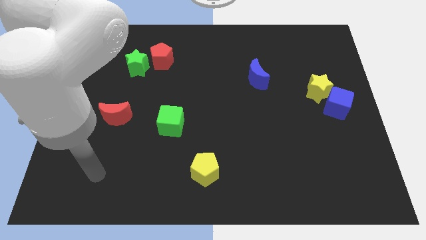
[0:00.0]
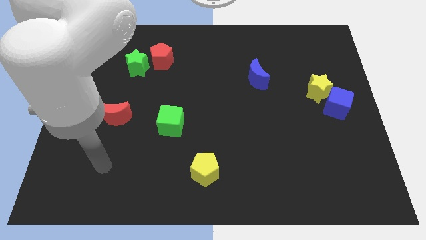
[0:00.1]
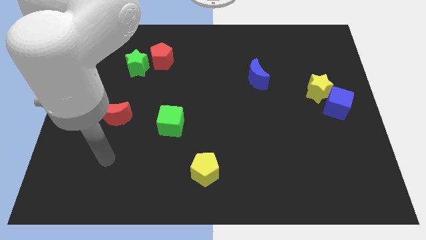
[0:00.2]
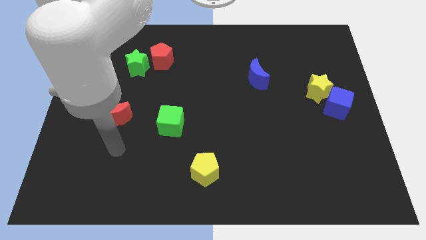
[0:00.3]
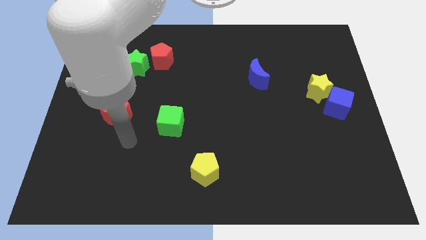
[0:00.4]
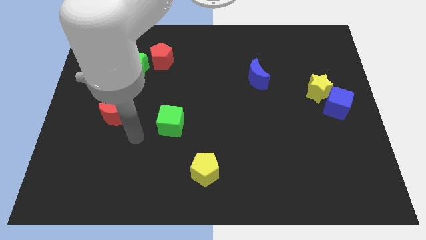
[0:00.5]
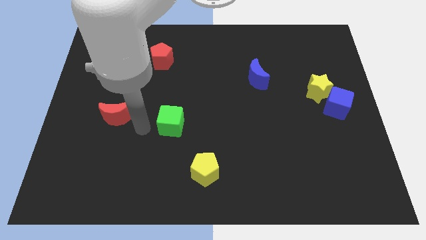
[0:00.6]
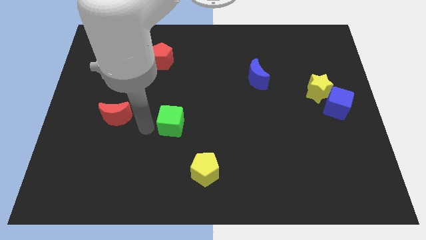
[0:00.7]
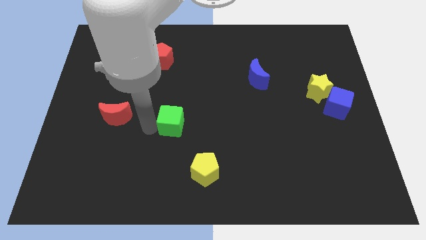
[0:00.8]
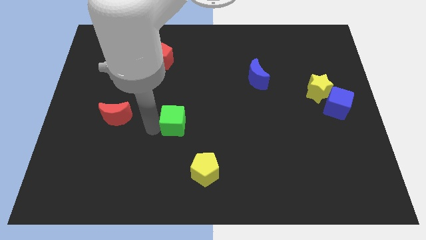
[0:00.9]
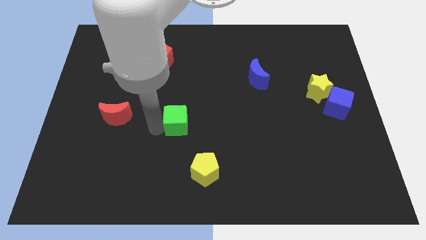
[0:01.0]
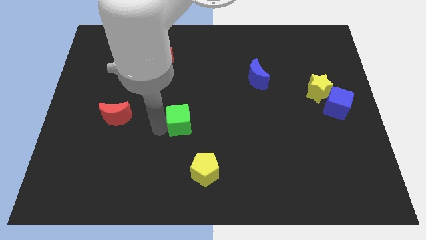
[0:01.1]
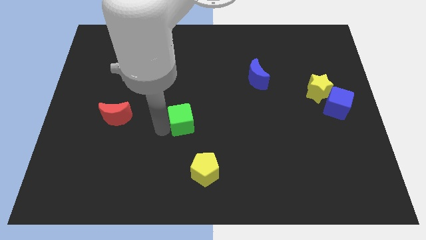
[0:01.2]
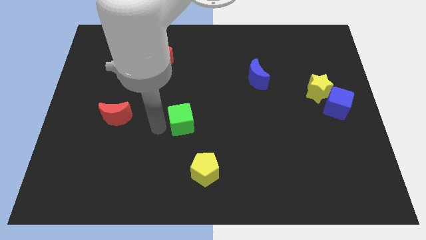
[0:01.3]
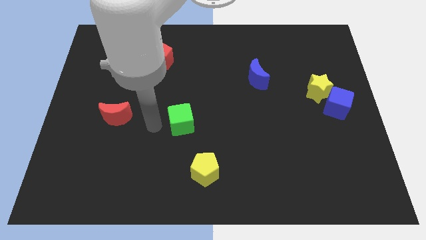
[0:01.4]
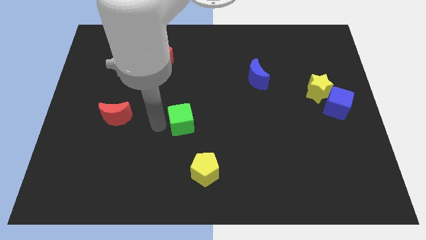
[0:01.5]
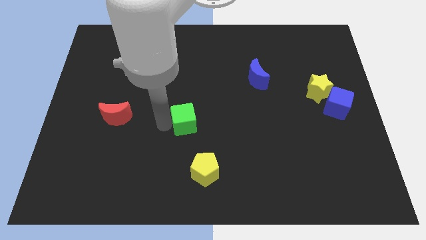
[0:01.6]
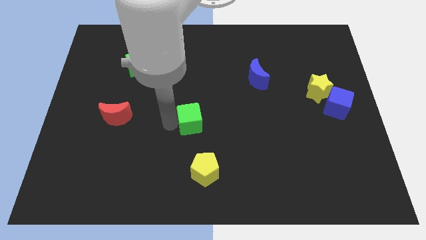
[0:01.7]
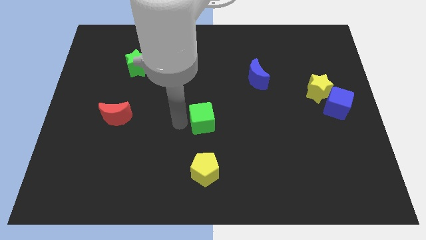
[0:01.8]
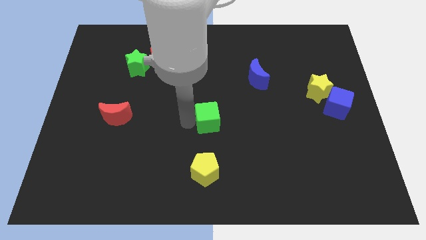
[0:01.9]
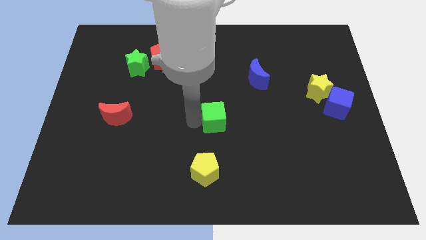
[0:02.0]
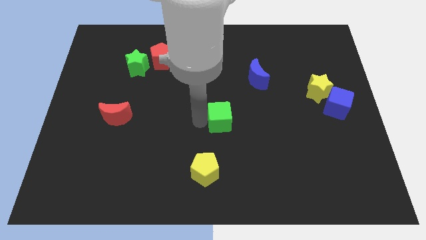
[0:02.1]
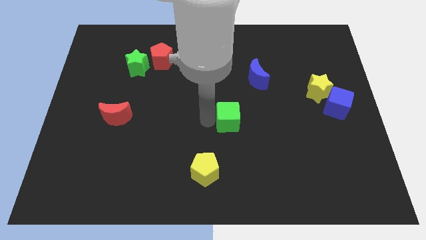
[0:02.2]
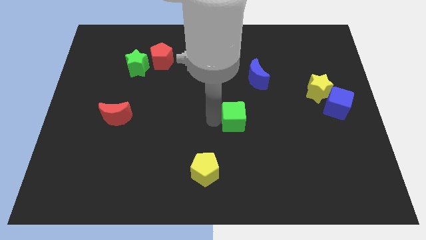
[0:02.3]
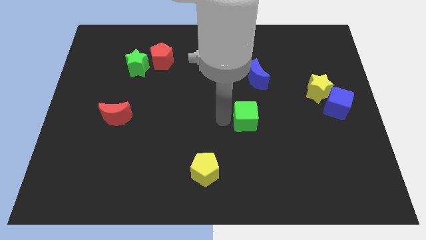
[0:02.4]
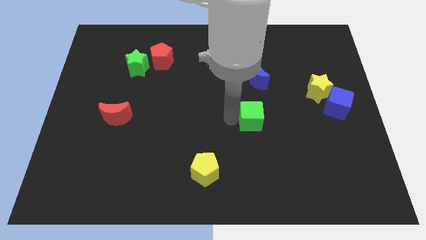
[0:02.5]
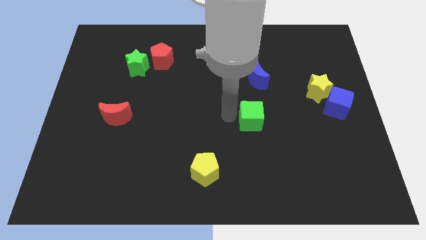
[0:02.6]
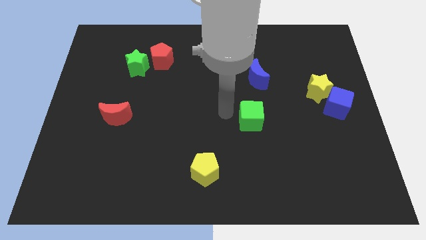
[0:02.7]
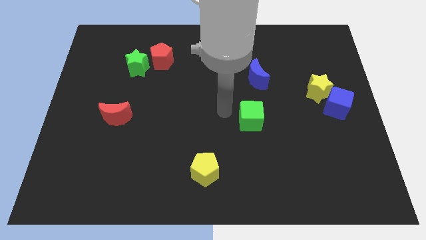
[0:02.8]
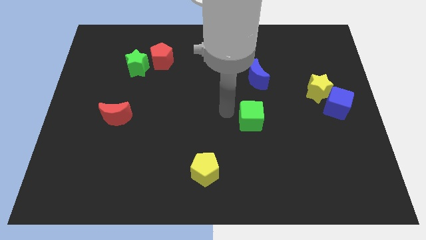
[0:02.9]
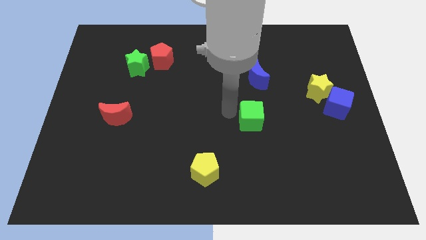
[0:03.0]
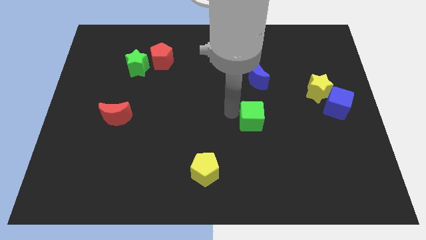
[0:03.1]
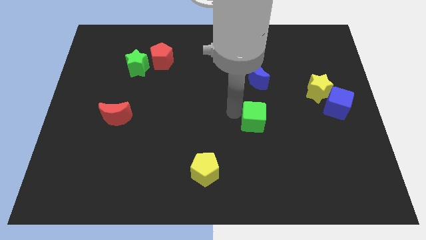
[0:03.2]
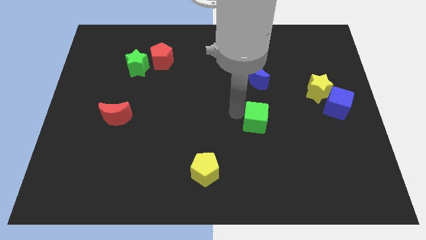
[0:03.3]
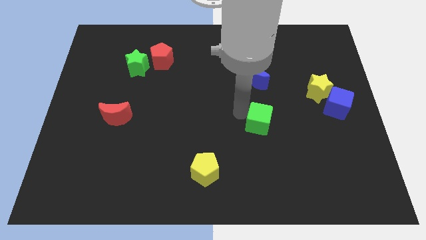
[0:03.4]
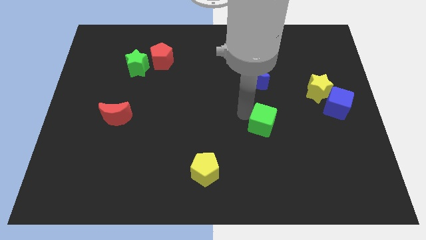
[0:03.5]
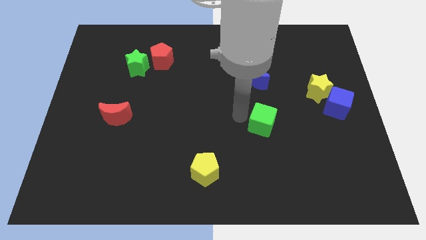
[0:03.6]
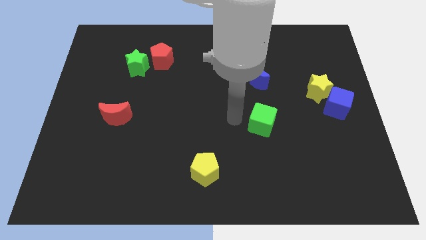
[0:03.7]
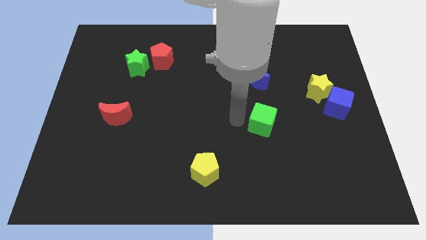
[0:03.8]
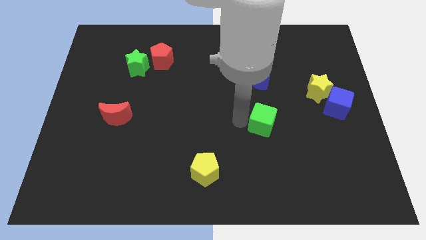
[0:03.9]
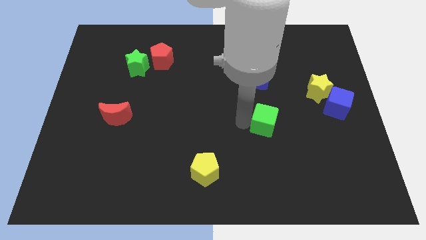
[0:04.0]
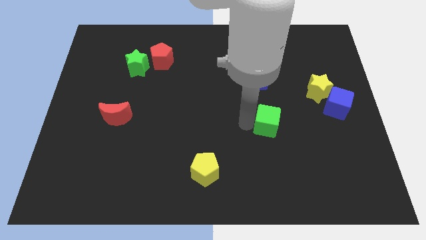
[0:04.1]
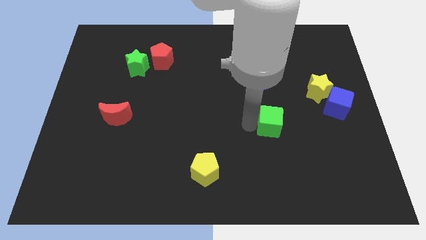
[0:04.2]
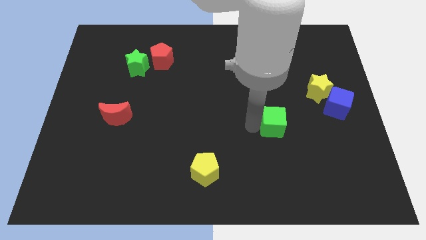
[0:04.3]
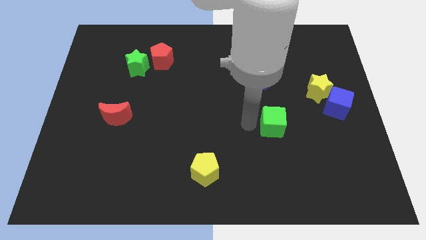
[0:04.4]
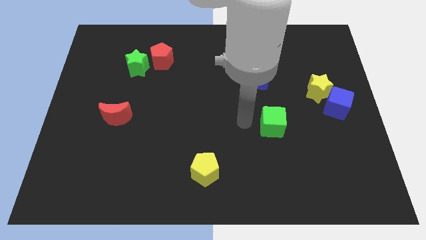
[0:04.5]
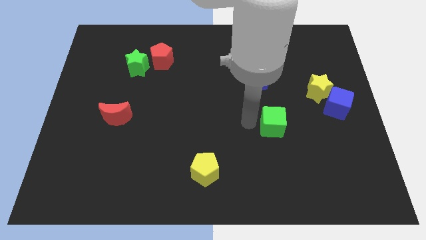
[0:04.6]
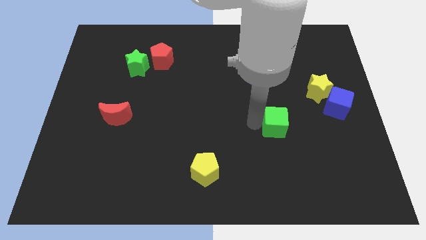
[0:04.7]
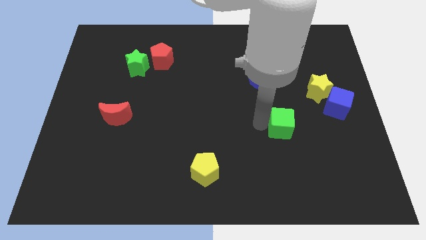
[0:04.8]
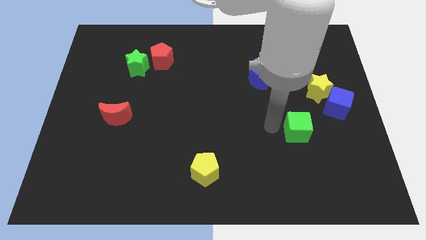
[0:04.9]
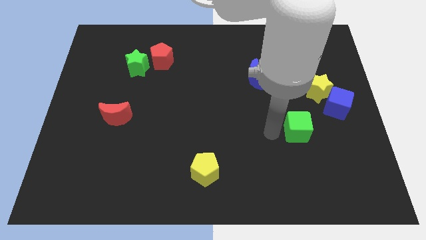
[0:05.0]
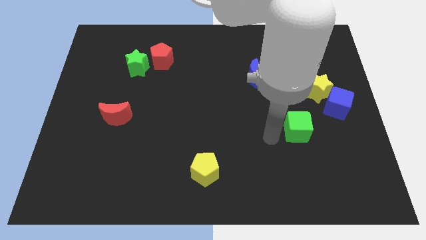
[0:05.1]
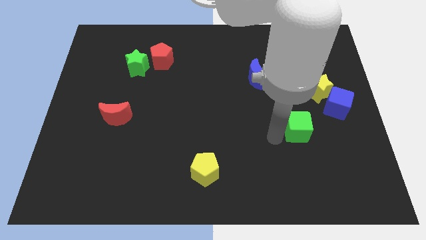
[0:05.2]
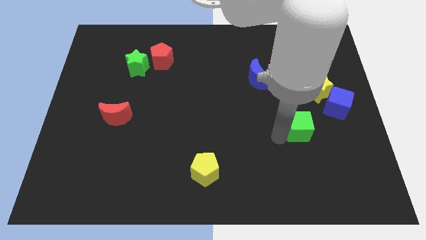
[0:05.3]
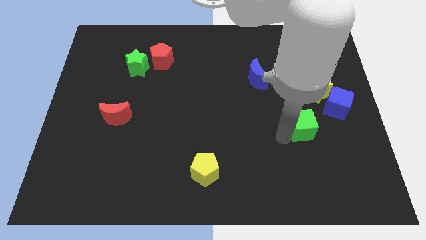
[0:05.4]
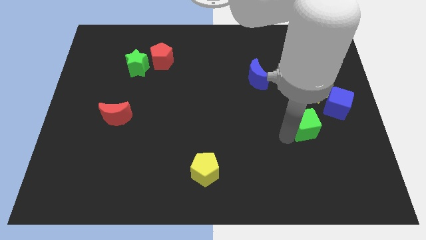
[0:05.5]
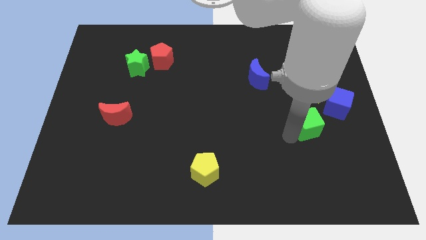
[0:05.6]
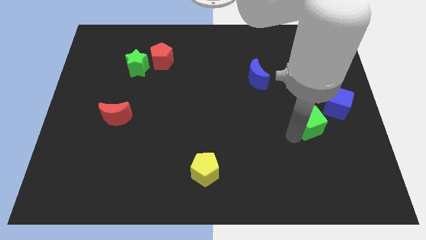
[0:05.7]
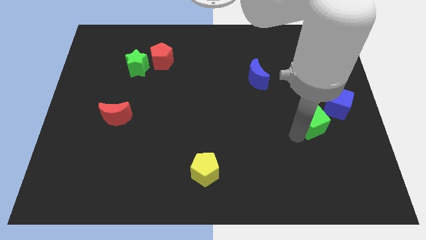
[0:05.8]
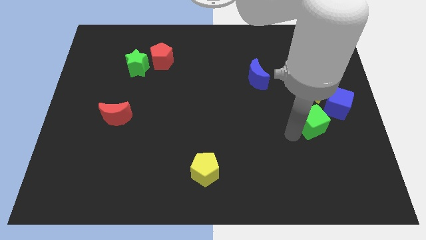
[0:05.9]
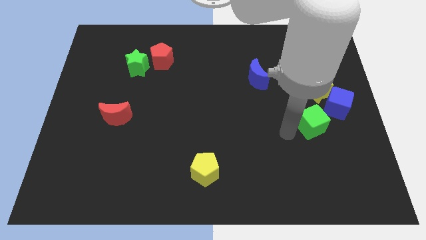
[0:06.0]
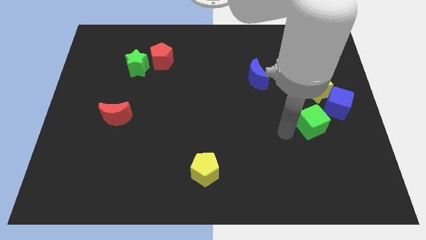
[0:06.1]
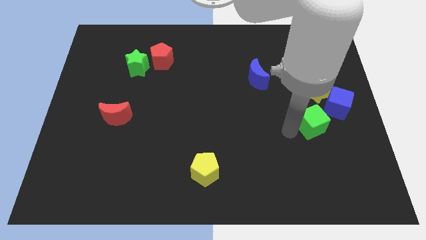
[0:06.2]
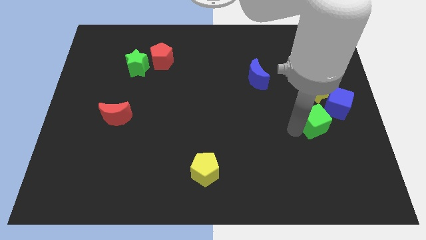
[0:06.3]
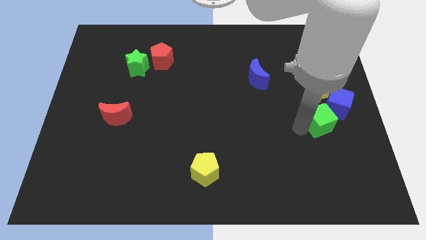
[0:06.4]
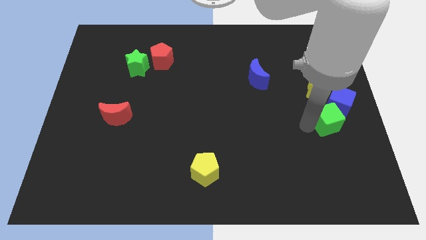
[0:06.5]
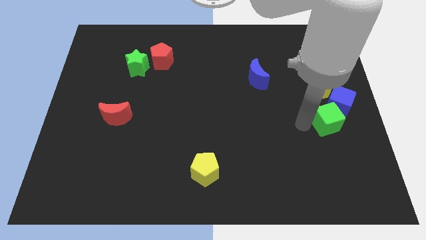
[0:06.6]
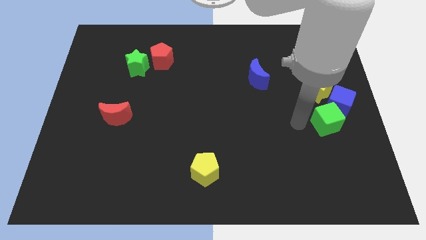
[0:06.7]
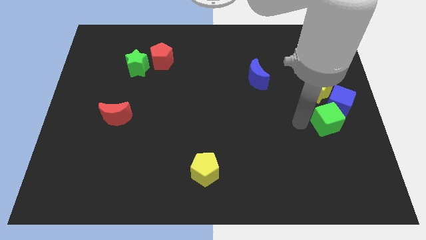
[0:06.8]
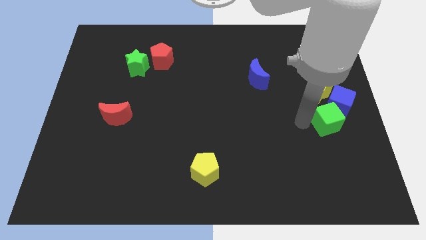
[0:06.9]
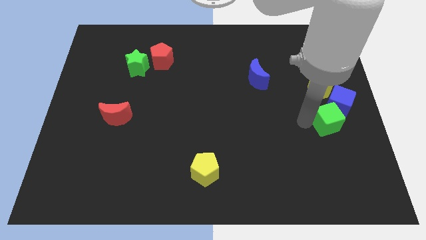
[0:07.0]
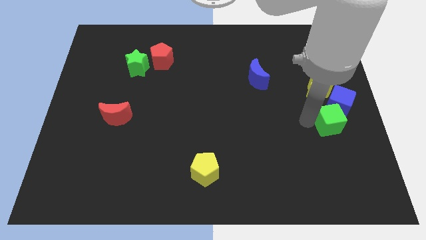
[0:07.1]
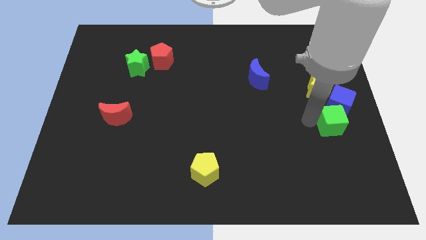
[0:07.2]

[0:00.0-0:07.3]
push the green cube to the center right
